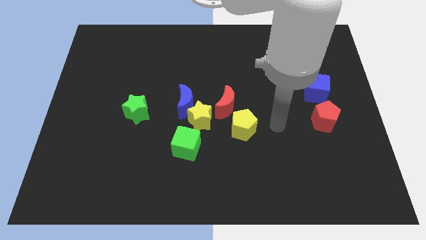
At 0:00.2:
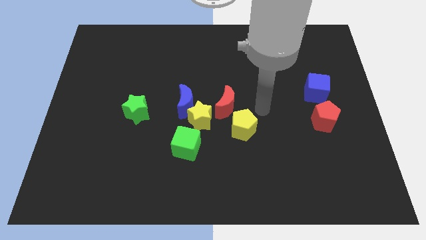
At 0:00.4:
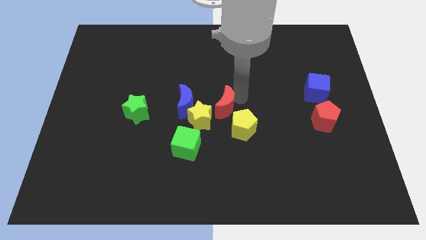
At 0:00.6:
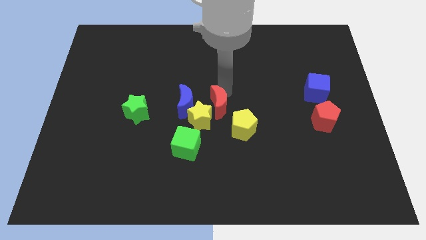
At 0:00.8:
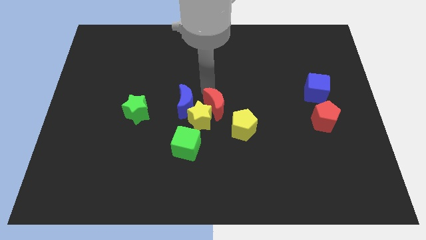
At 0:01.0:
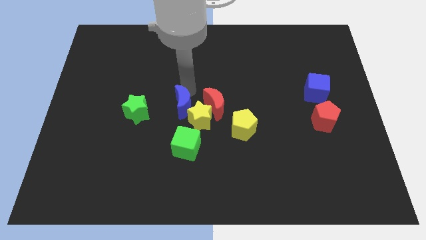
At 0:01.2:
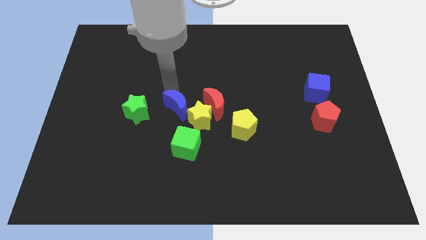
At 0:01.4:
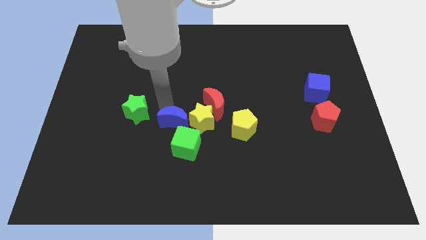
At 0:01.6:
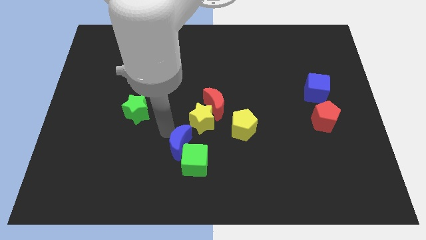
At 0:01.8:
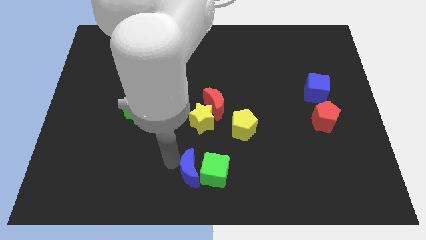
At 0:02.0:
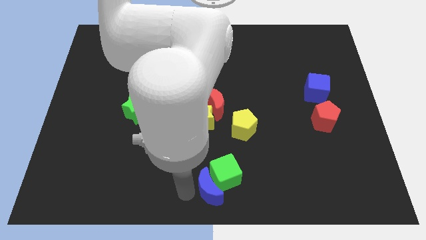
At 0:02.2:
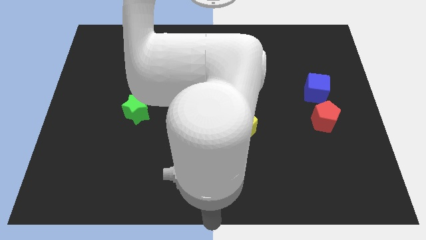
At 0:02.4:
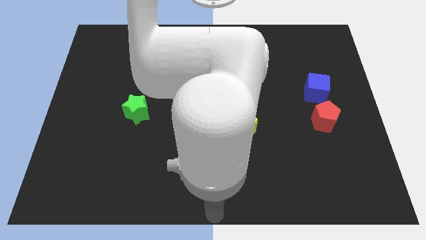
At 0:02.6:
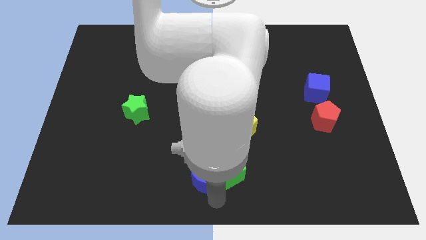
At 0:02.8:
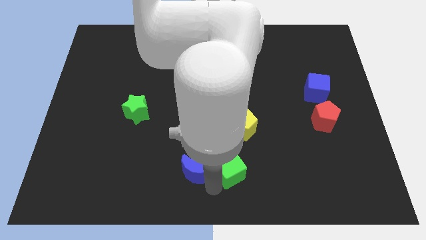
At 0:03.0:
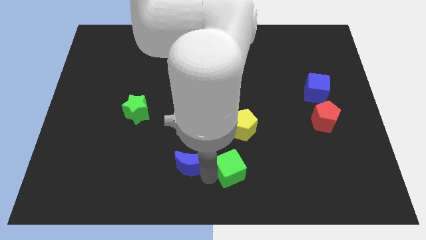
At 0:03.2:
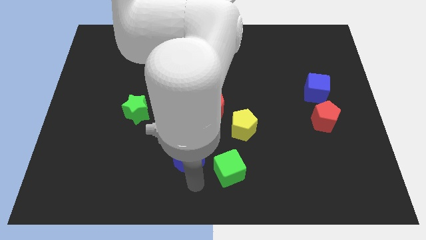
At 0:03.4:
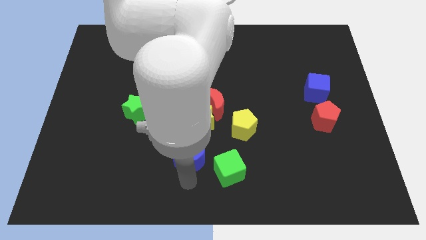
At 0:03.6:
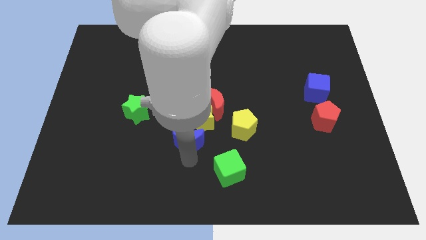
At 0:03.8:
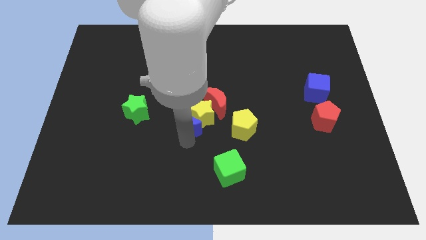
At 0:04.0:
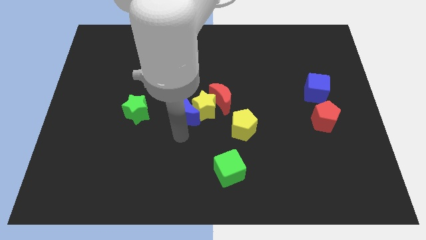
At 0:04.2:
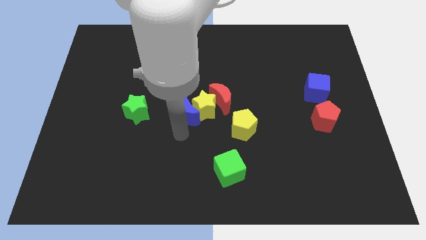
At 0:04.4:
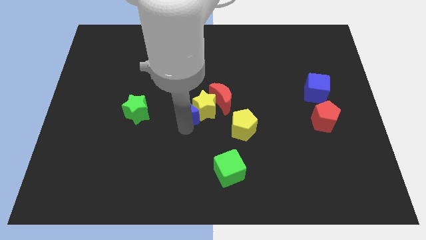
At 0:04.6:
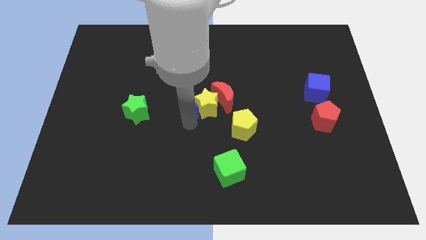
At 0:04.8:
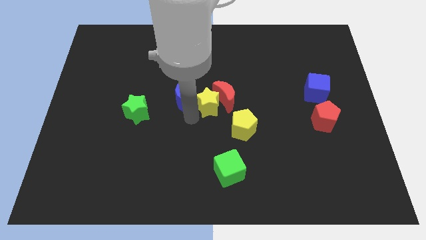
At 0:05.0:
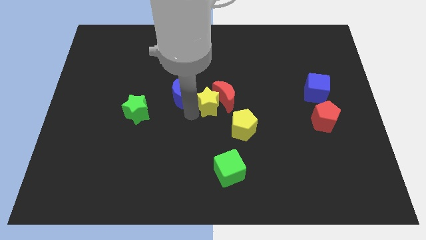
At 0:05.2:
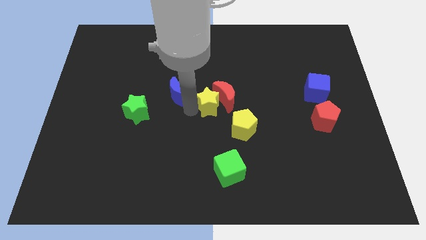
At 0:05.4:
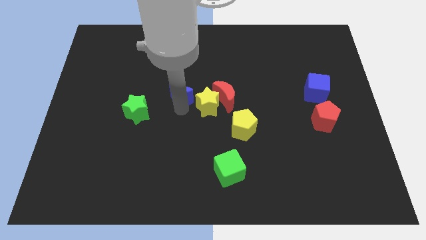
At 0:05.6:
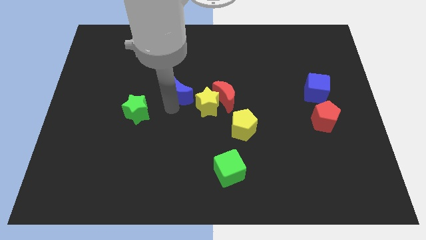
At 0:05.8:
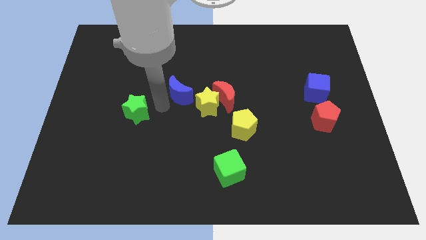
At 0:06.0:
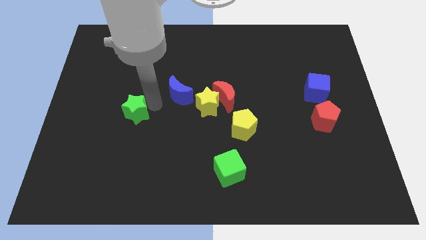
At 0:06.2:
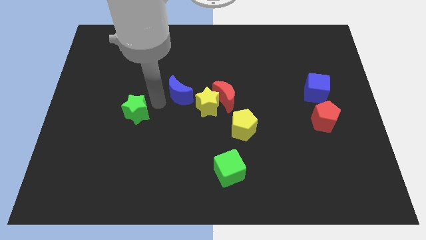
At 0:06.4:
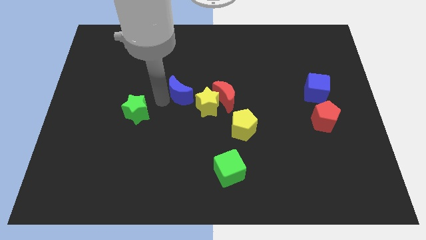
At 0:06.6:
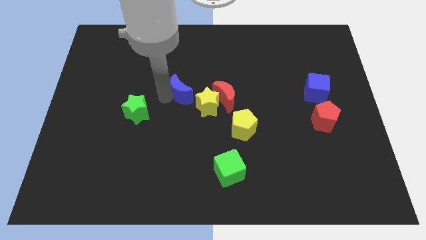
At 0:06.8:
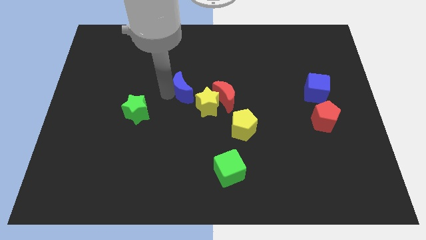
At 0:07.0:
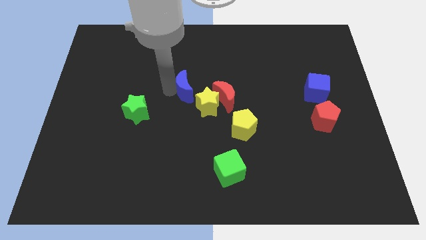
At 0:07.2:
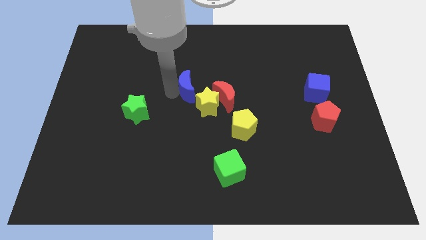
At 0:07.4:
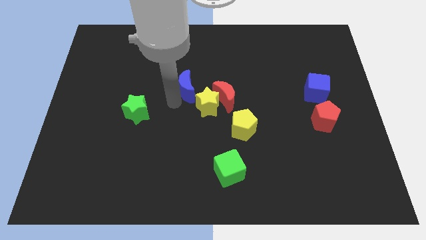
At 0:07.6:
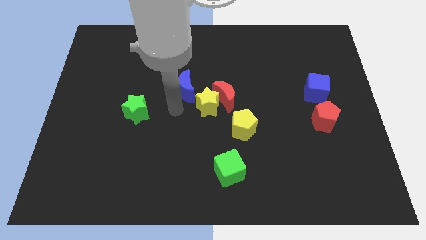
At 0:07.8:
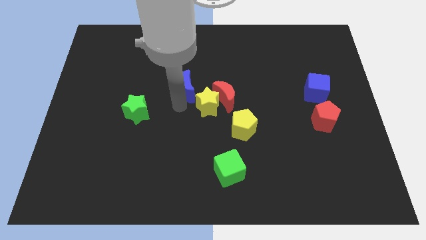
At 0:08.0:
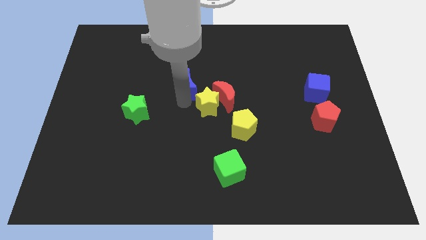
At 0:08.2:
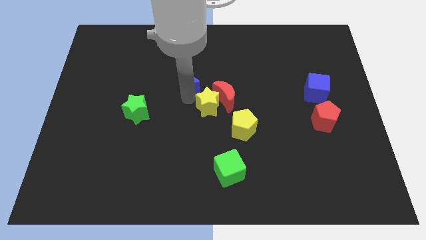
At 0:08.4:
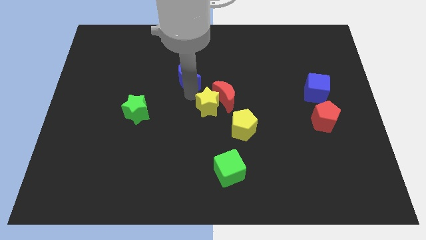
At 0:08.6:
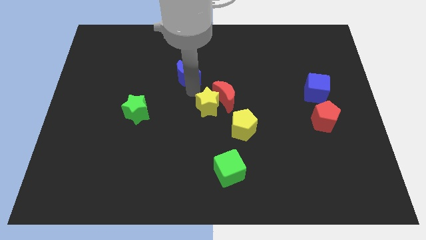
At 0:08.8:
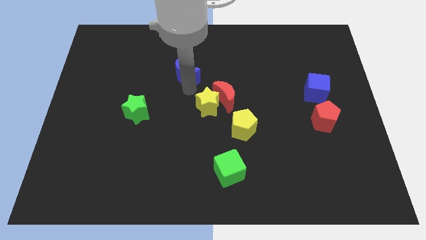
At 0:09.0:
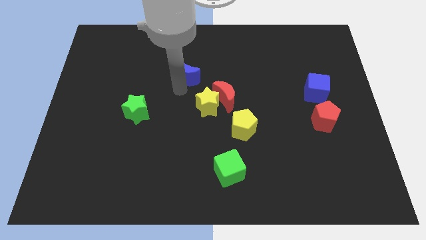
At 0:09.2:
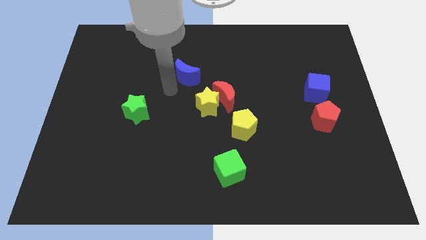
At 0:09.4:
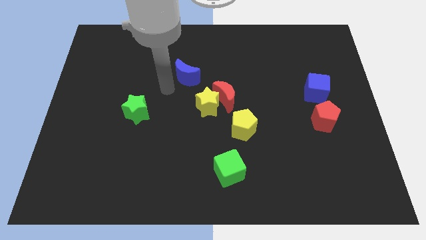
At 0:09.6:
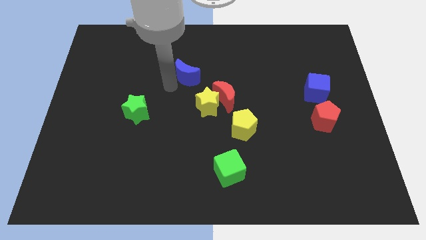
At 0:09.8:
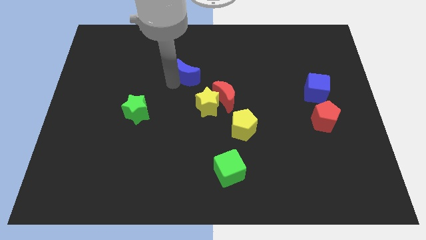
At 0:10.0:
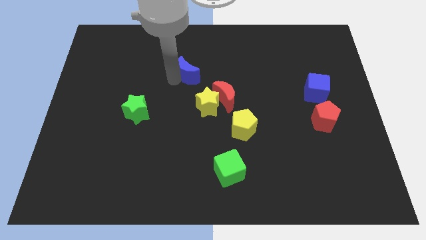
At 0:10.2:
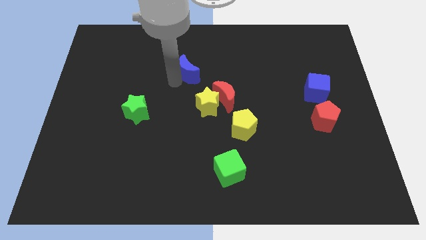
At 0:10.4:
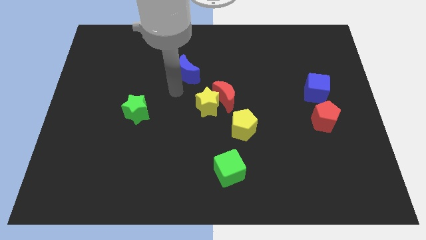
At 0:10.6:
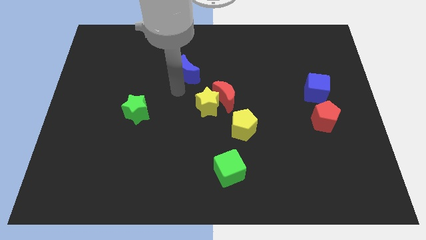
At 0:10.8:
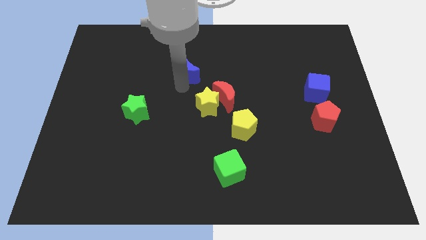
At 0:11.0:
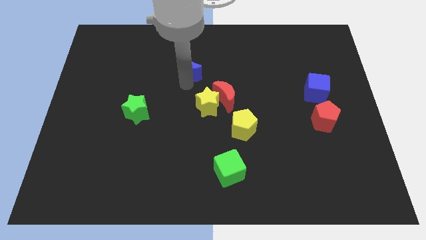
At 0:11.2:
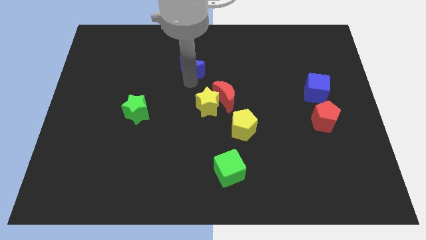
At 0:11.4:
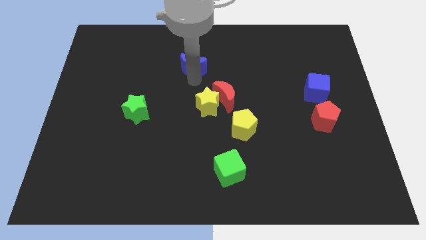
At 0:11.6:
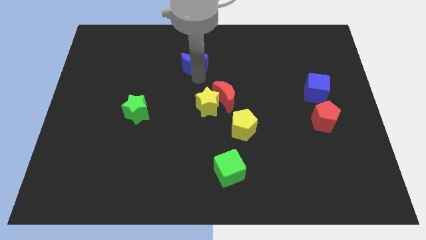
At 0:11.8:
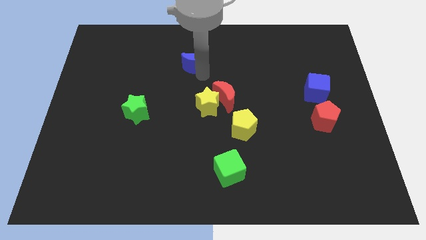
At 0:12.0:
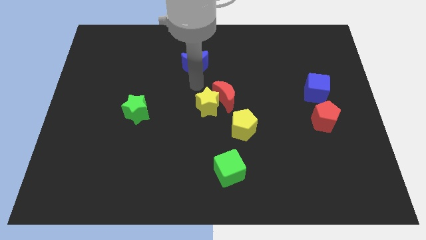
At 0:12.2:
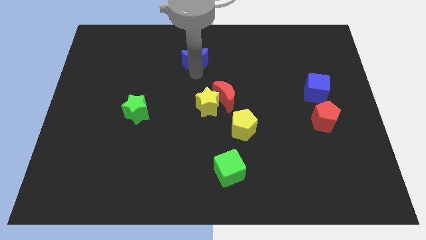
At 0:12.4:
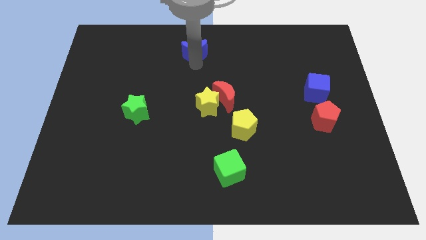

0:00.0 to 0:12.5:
put the blue moon to the towards your base
